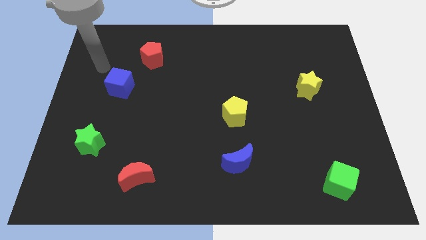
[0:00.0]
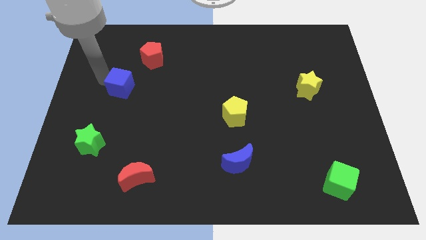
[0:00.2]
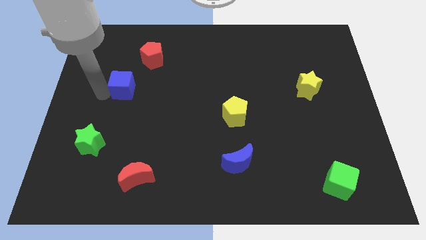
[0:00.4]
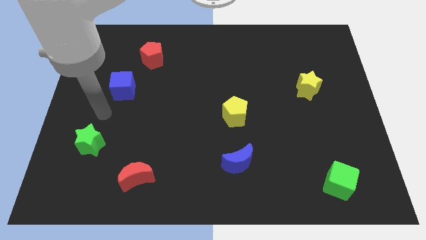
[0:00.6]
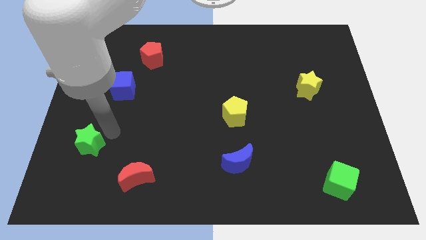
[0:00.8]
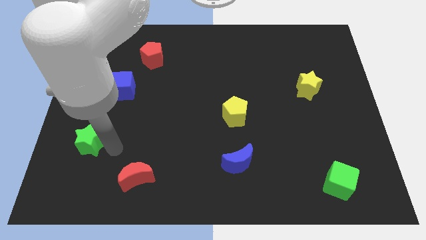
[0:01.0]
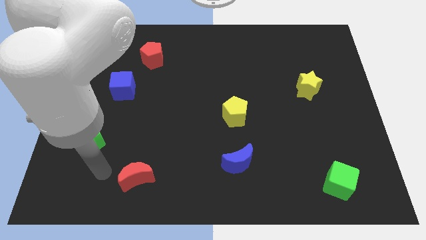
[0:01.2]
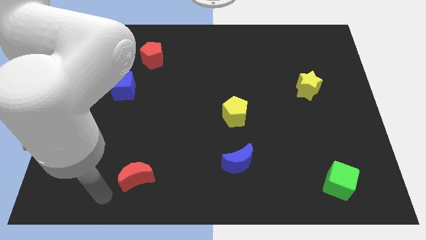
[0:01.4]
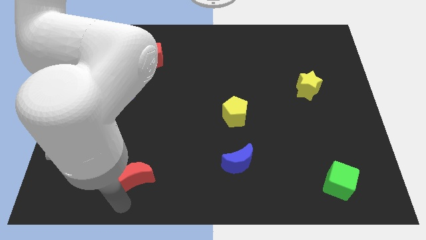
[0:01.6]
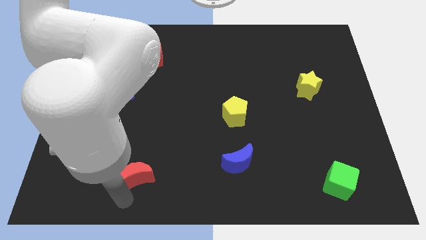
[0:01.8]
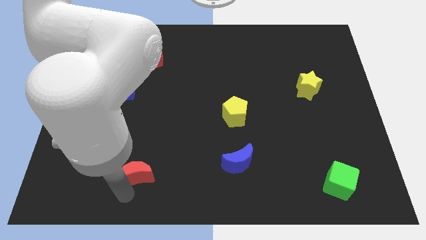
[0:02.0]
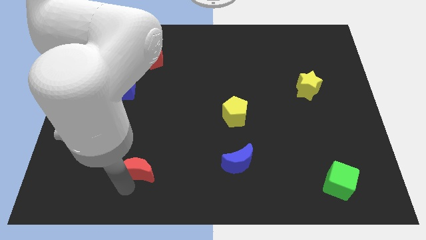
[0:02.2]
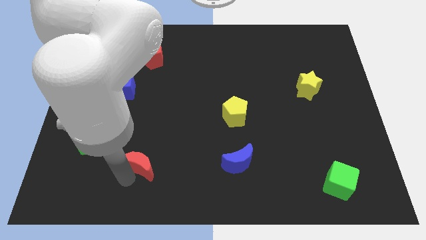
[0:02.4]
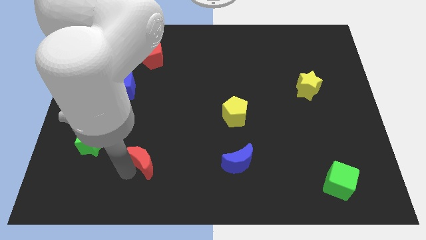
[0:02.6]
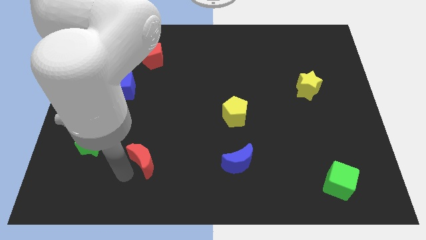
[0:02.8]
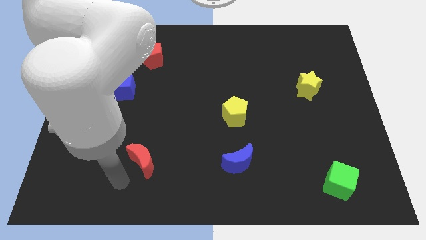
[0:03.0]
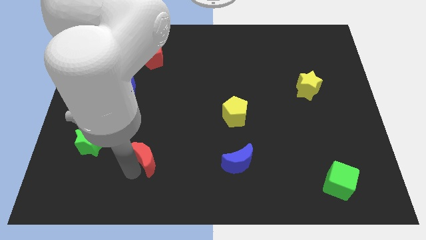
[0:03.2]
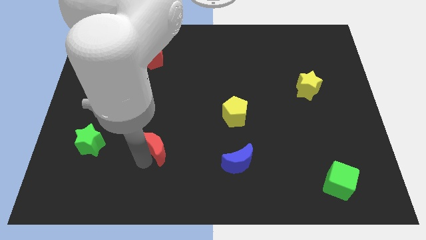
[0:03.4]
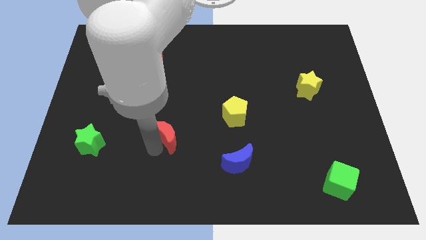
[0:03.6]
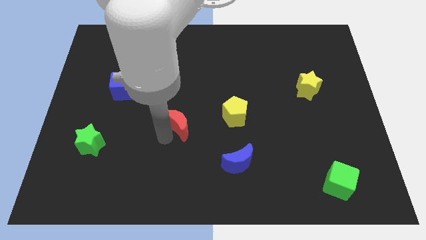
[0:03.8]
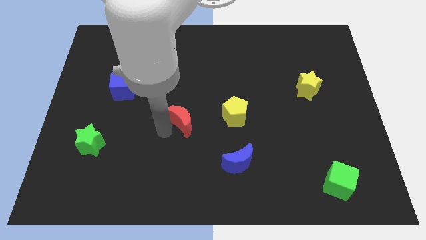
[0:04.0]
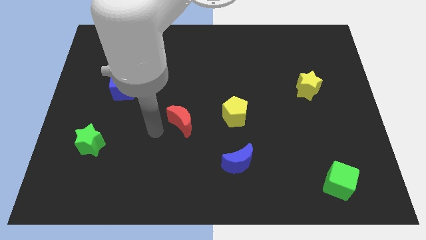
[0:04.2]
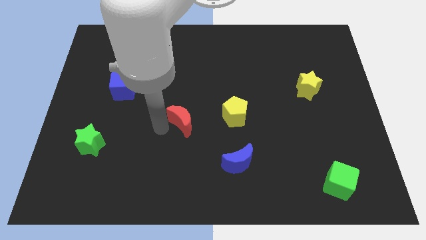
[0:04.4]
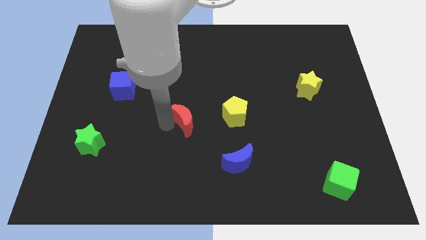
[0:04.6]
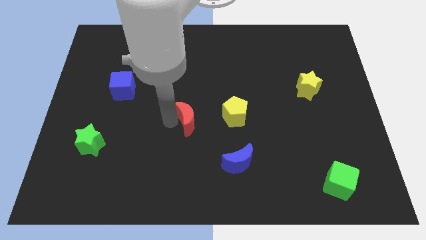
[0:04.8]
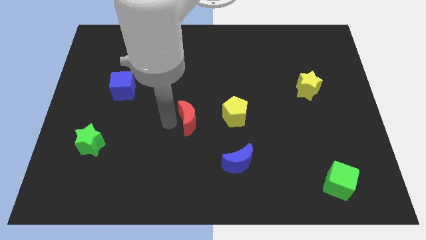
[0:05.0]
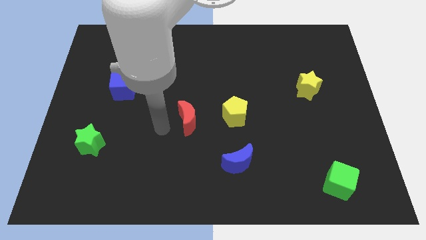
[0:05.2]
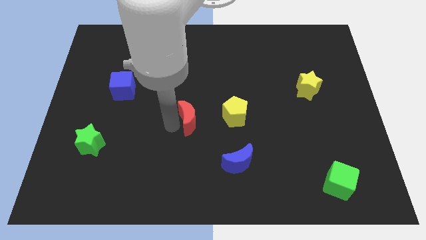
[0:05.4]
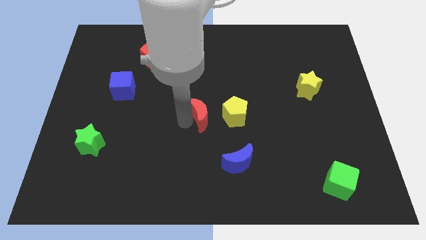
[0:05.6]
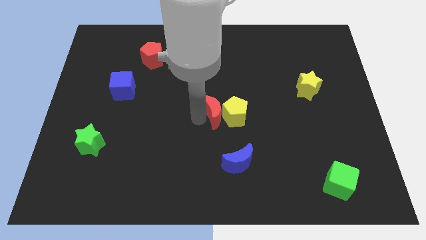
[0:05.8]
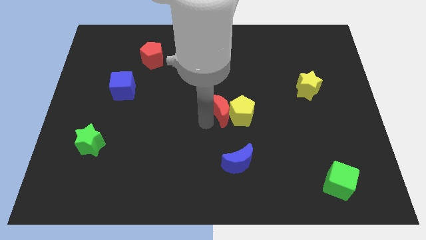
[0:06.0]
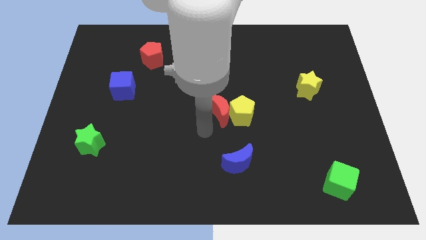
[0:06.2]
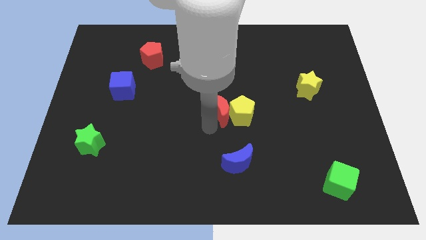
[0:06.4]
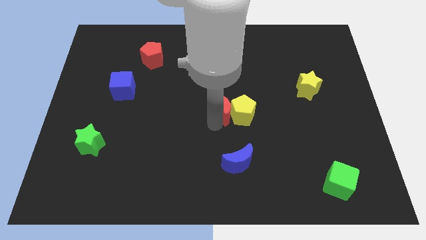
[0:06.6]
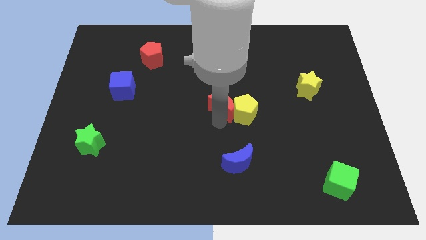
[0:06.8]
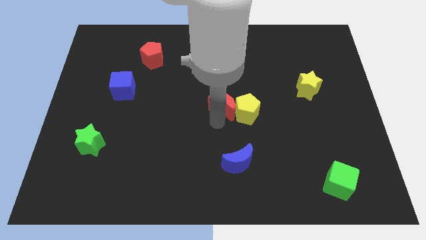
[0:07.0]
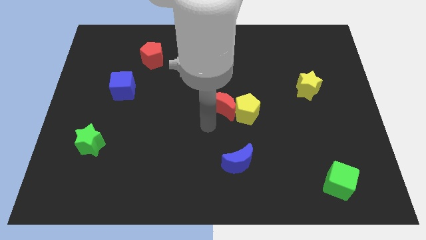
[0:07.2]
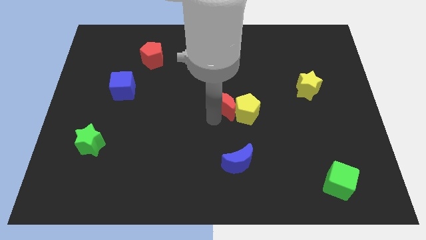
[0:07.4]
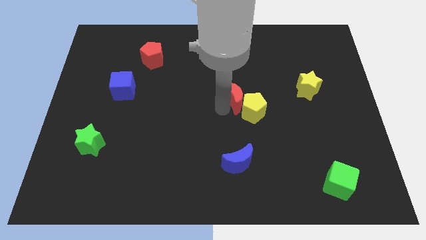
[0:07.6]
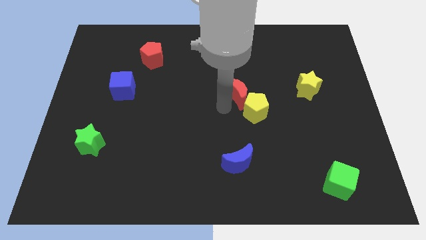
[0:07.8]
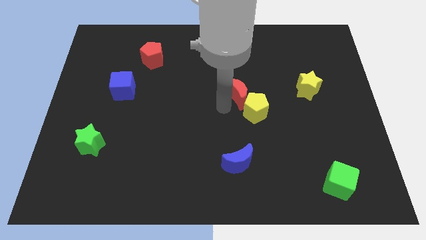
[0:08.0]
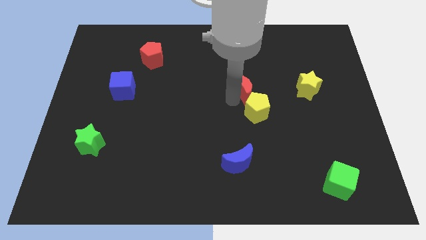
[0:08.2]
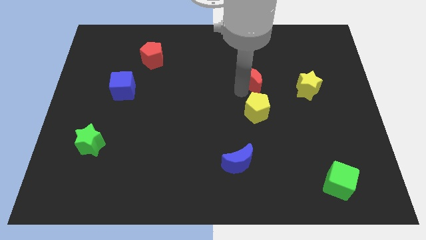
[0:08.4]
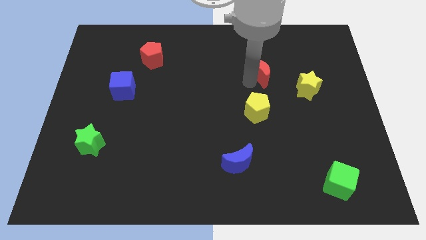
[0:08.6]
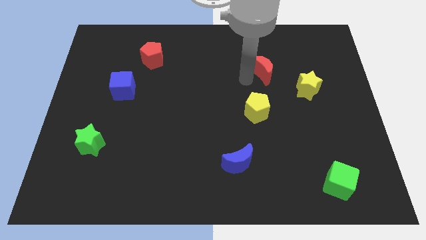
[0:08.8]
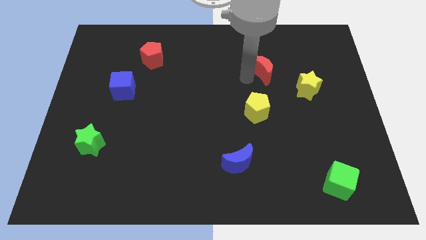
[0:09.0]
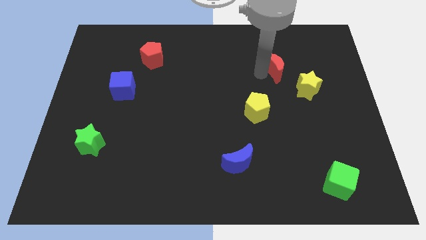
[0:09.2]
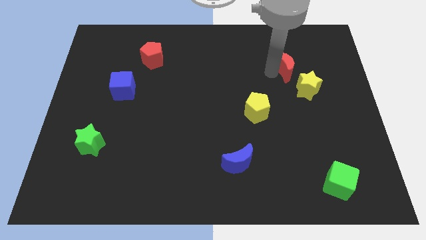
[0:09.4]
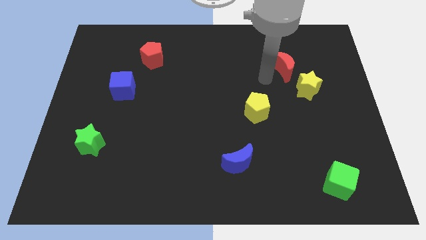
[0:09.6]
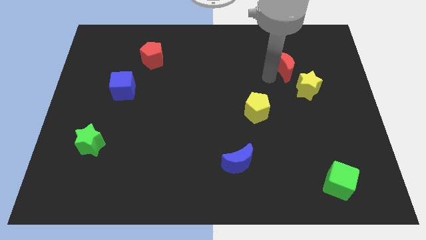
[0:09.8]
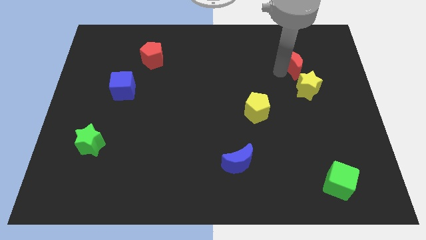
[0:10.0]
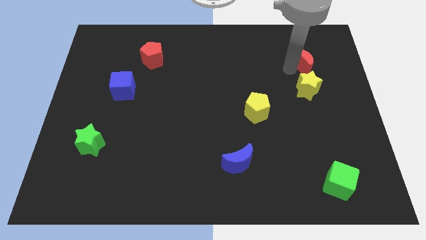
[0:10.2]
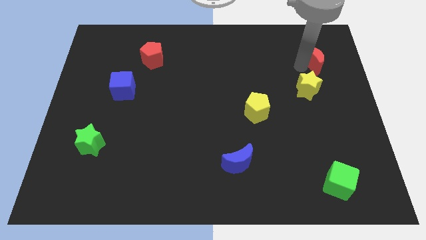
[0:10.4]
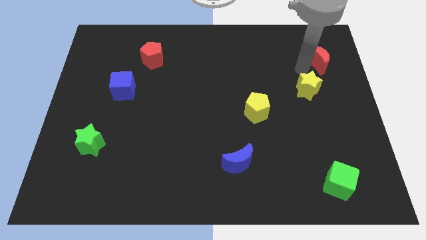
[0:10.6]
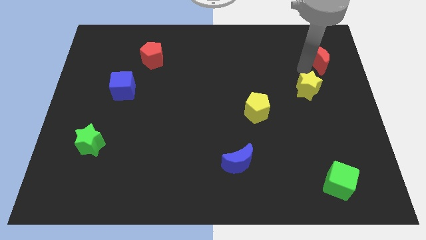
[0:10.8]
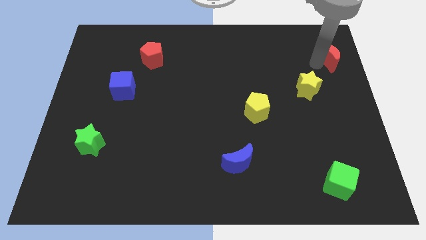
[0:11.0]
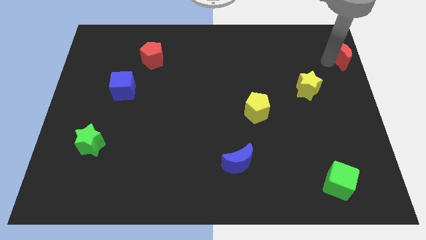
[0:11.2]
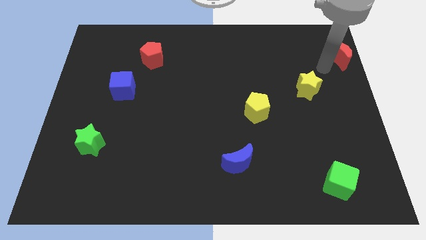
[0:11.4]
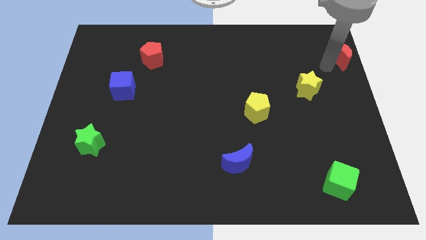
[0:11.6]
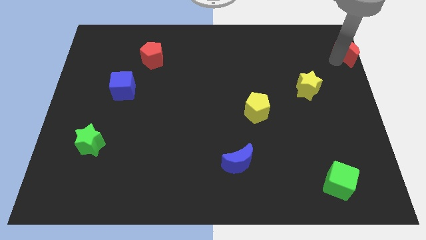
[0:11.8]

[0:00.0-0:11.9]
put the red moon to the top right
